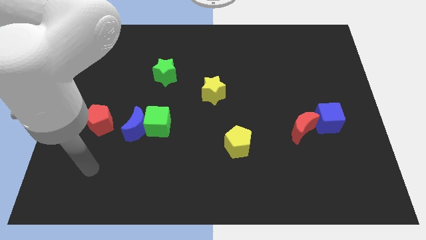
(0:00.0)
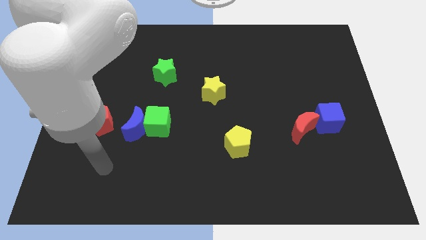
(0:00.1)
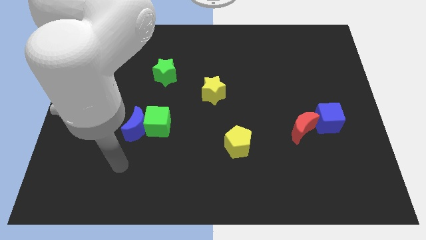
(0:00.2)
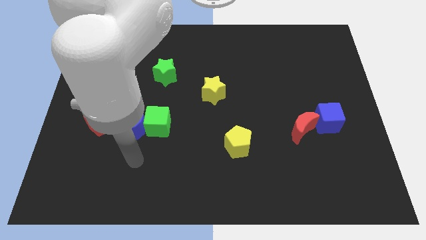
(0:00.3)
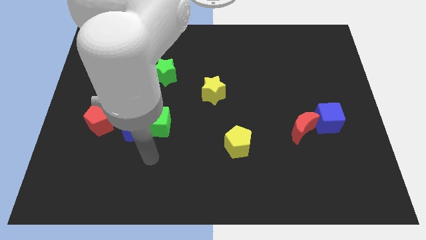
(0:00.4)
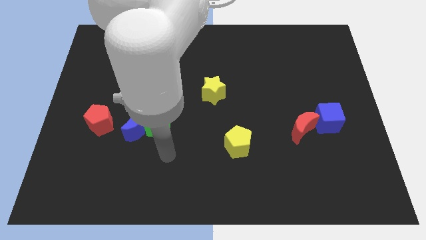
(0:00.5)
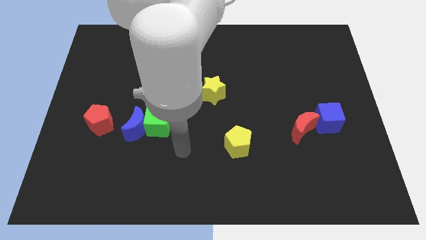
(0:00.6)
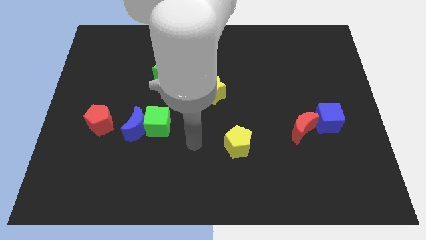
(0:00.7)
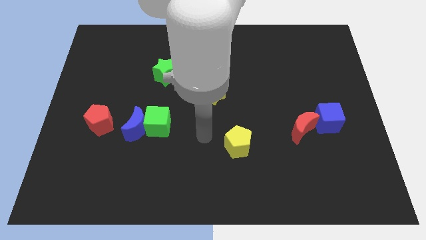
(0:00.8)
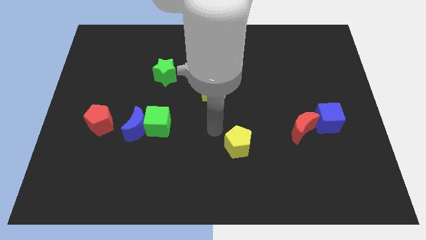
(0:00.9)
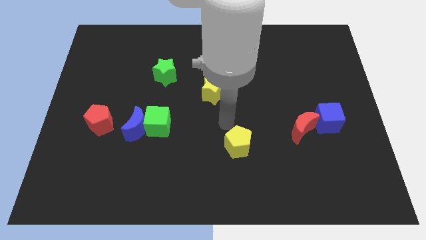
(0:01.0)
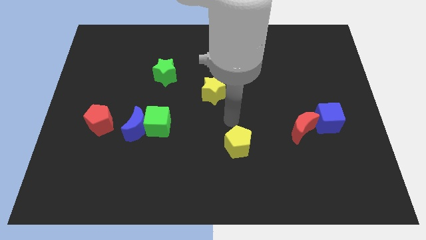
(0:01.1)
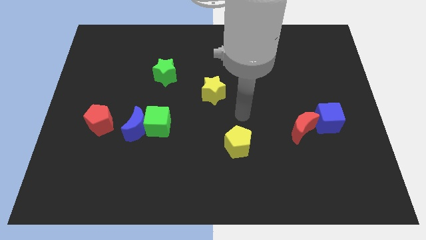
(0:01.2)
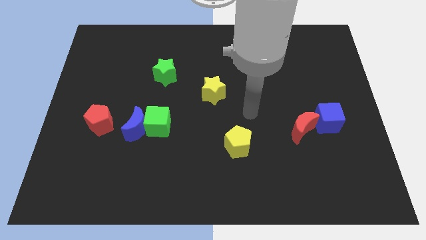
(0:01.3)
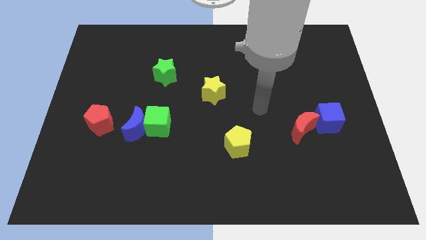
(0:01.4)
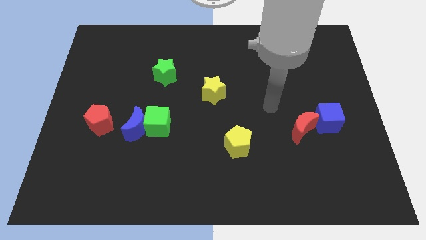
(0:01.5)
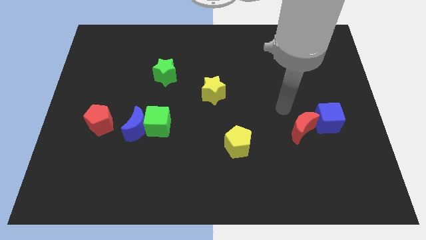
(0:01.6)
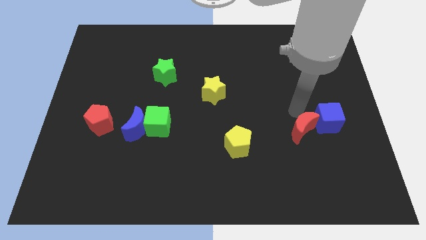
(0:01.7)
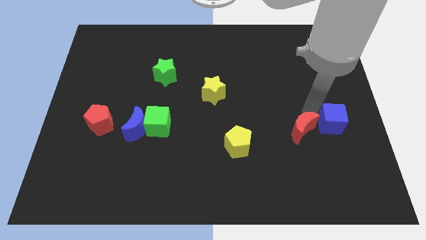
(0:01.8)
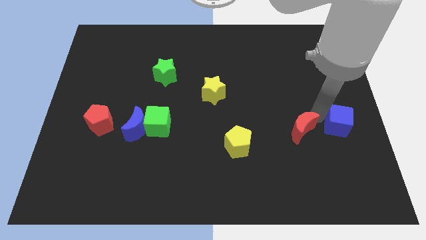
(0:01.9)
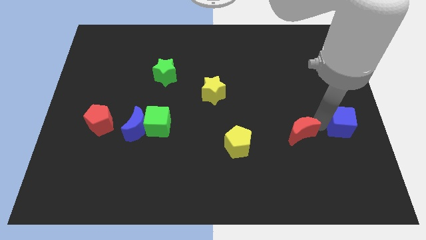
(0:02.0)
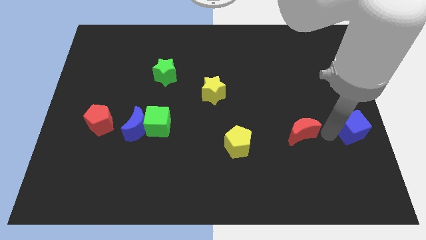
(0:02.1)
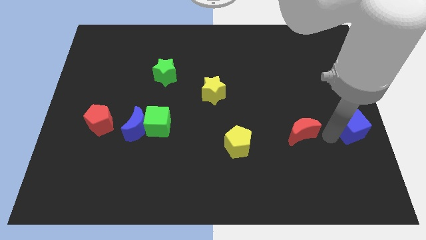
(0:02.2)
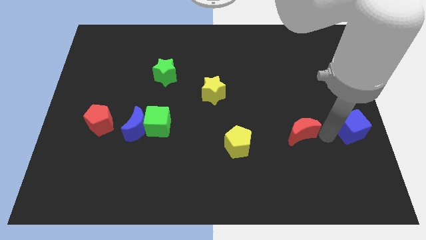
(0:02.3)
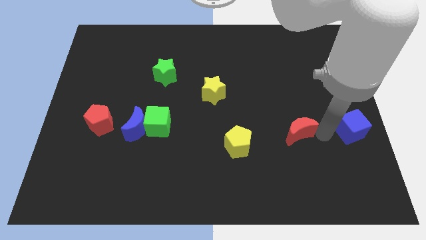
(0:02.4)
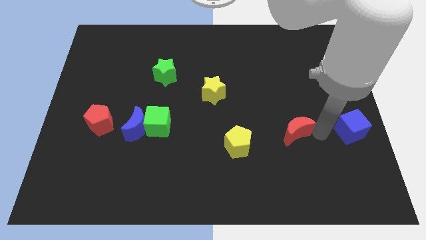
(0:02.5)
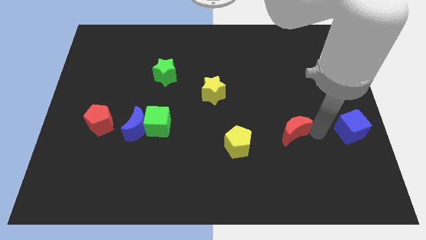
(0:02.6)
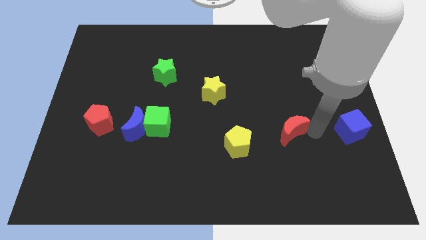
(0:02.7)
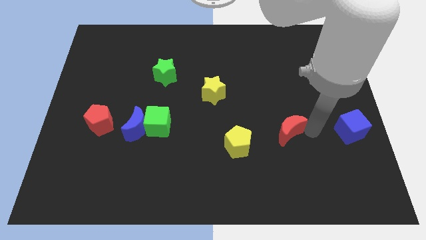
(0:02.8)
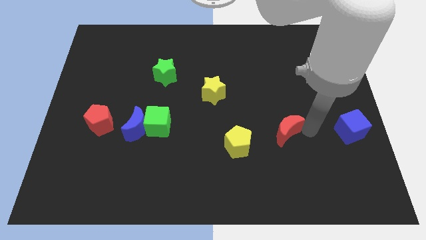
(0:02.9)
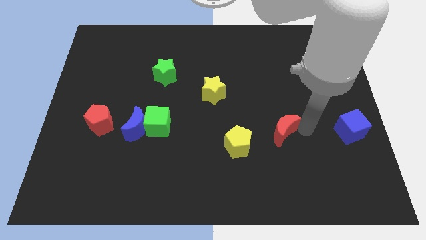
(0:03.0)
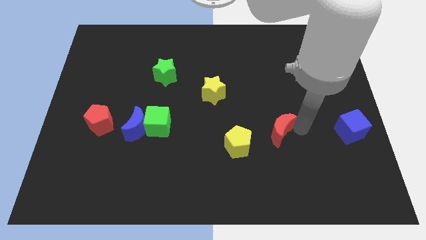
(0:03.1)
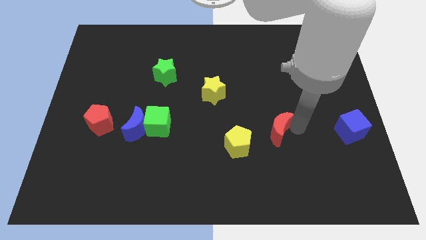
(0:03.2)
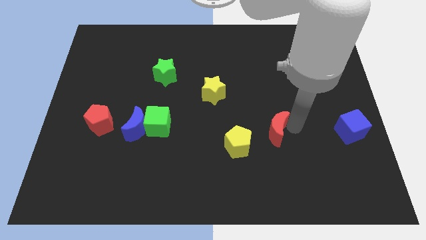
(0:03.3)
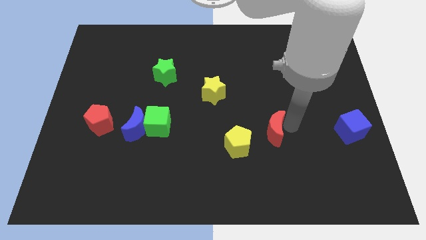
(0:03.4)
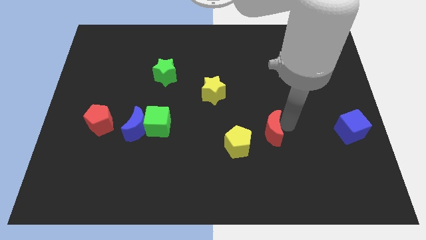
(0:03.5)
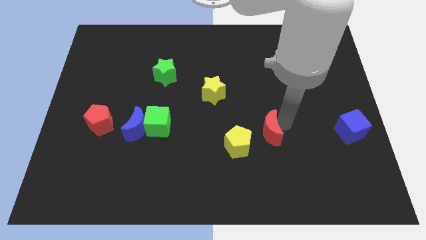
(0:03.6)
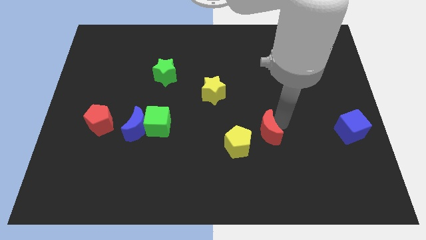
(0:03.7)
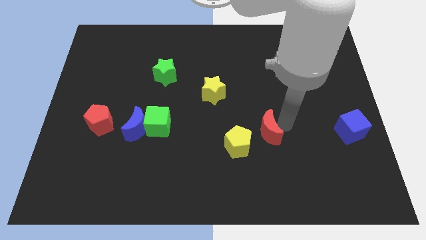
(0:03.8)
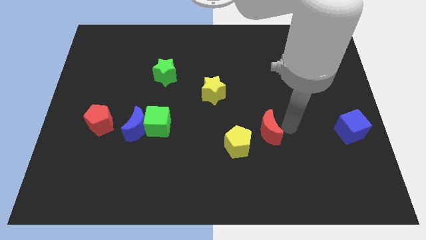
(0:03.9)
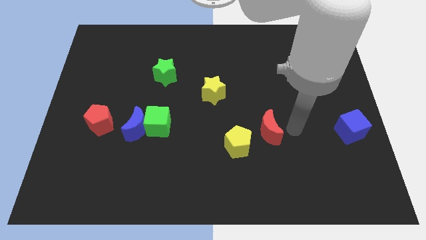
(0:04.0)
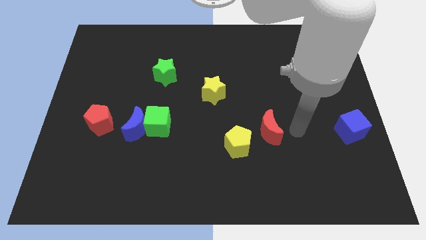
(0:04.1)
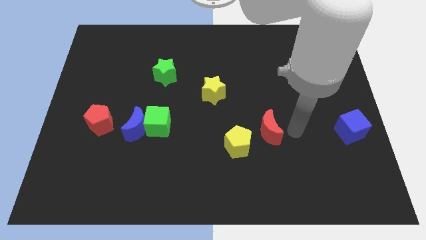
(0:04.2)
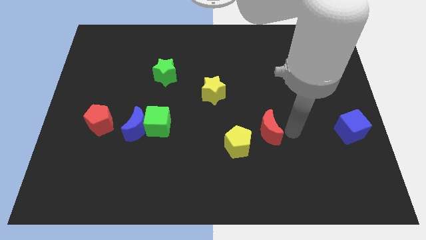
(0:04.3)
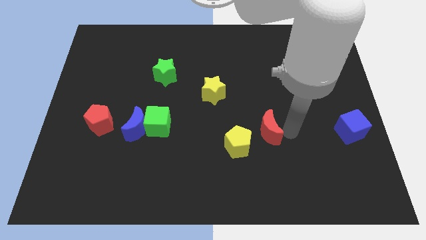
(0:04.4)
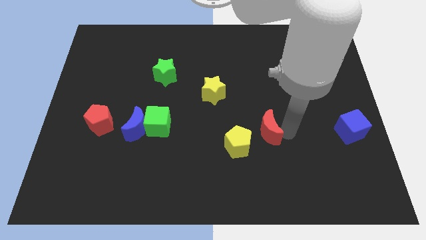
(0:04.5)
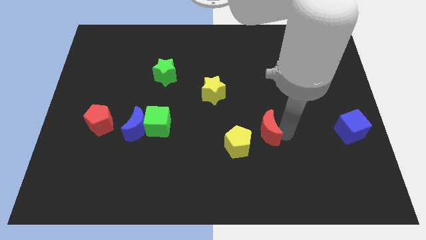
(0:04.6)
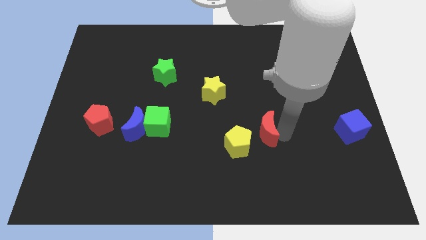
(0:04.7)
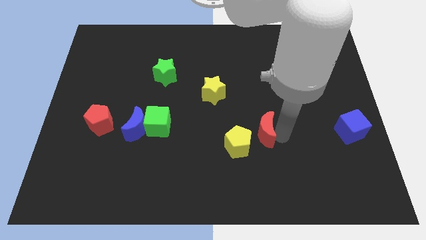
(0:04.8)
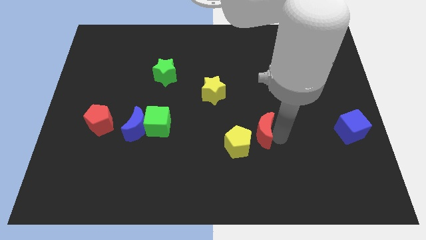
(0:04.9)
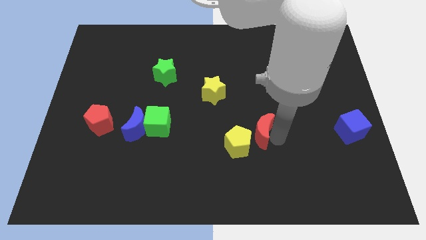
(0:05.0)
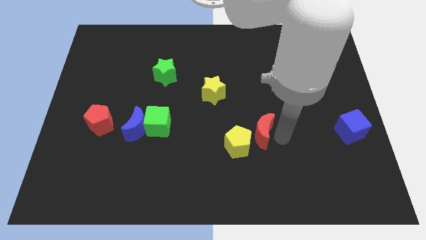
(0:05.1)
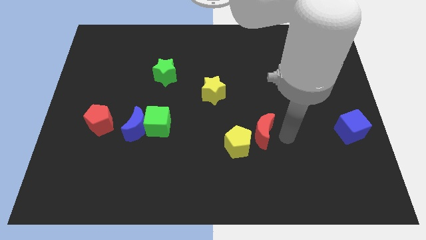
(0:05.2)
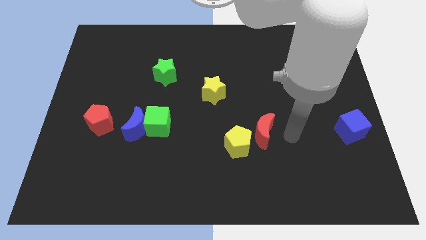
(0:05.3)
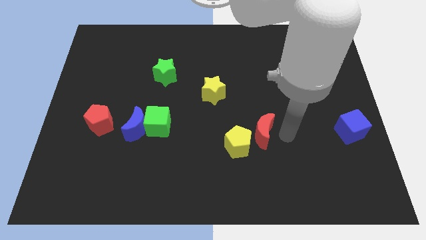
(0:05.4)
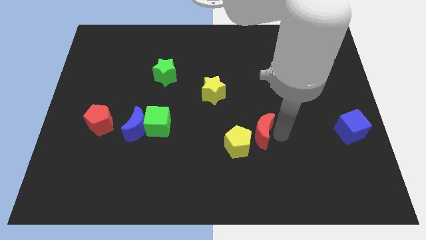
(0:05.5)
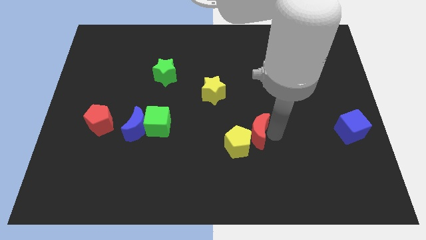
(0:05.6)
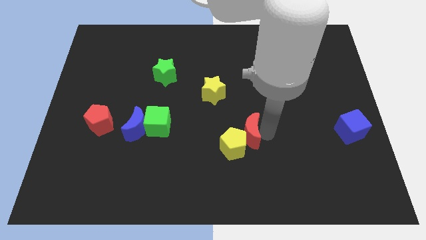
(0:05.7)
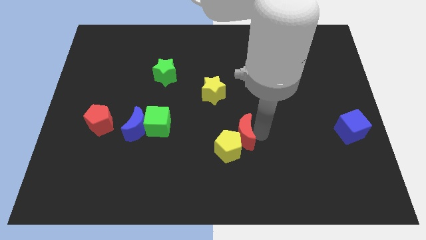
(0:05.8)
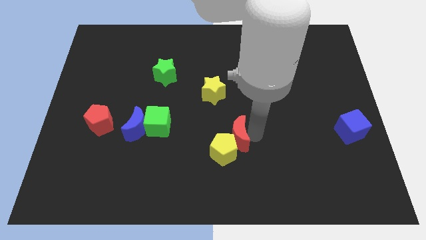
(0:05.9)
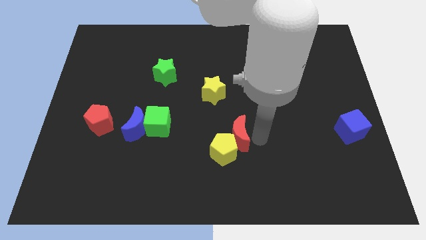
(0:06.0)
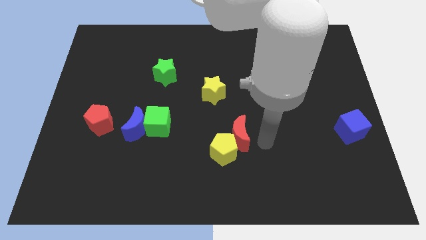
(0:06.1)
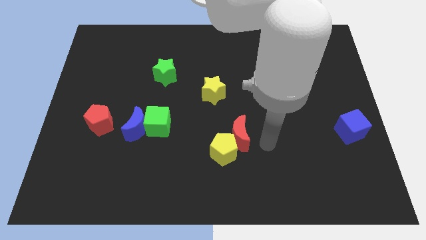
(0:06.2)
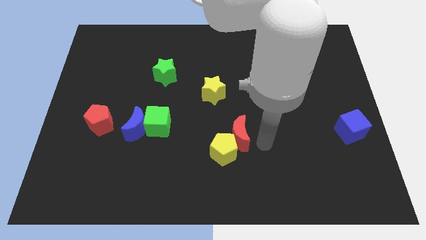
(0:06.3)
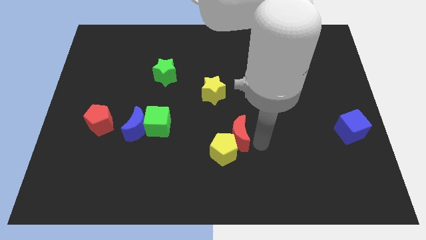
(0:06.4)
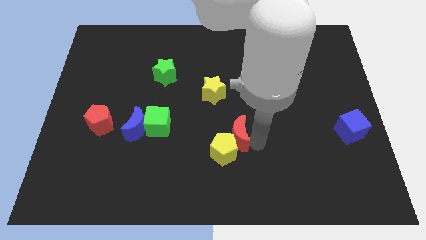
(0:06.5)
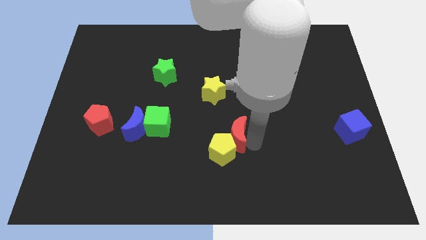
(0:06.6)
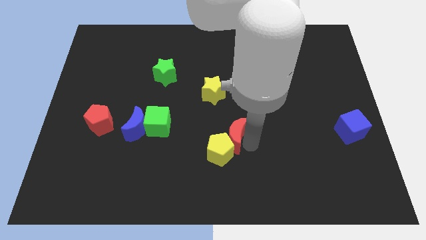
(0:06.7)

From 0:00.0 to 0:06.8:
push the red moon below the yellow star
